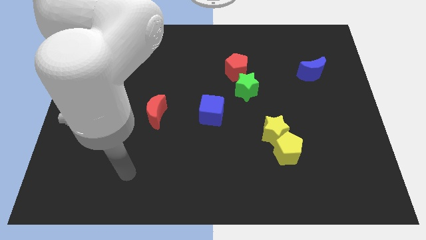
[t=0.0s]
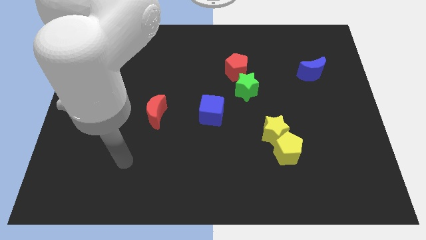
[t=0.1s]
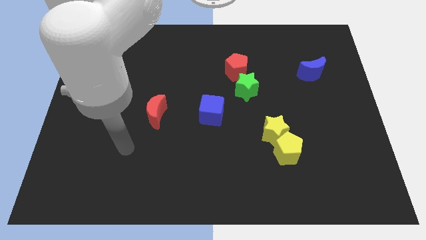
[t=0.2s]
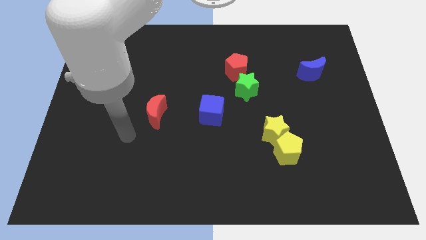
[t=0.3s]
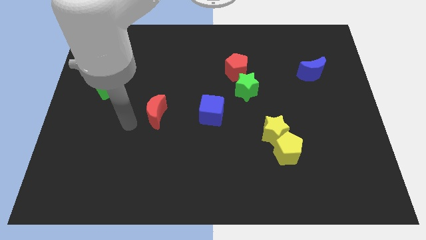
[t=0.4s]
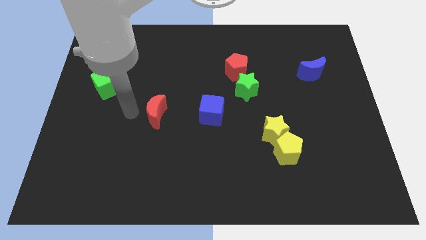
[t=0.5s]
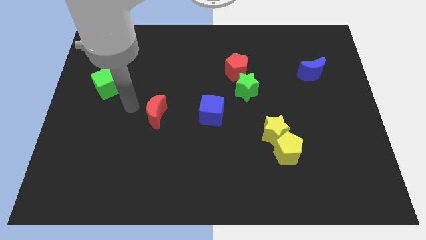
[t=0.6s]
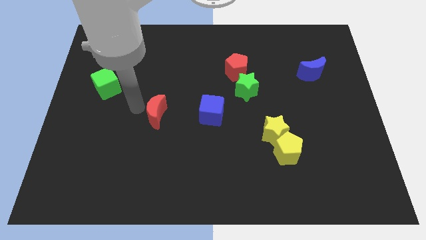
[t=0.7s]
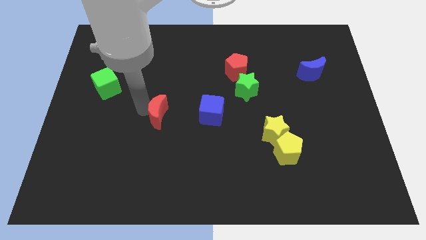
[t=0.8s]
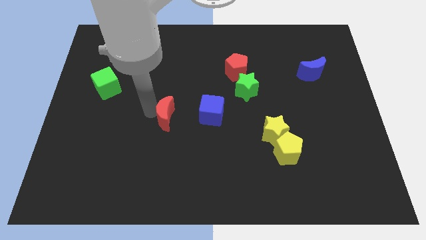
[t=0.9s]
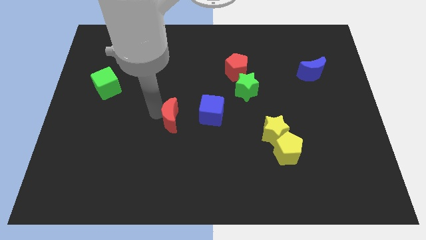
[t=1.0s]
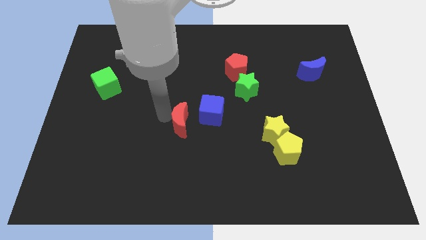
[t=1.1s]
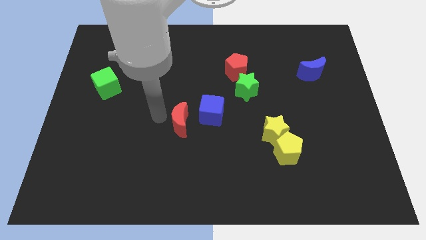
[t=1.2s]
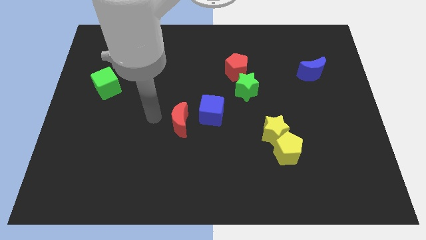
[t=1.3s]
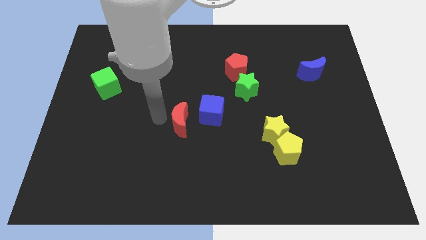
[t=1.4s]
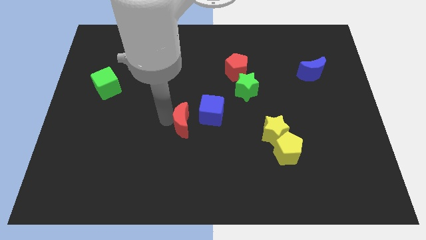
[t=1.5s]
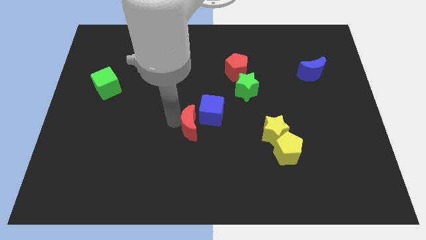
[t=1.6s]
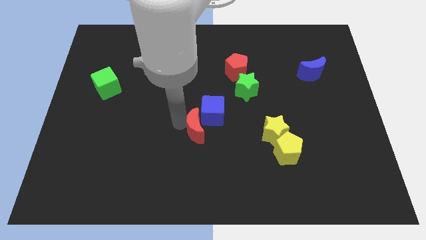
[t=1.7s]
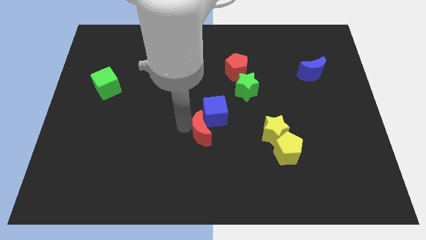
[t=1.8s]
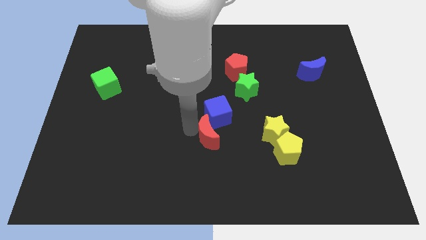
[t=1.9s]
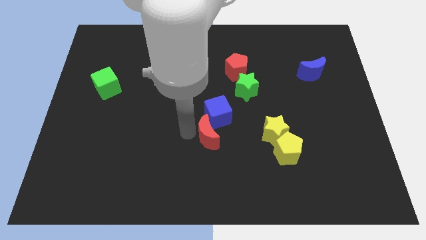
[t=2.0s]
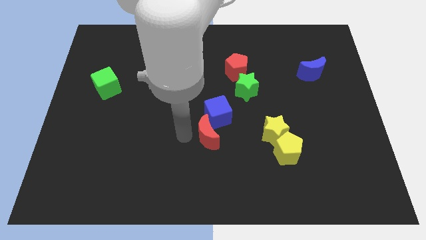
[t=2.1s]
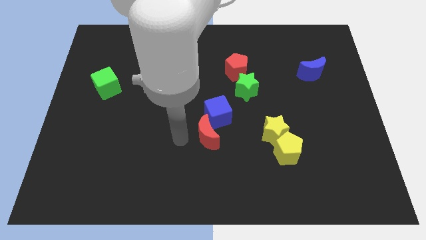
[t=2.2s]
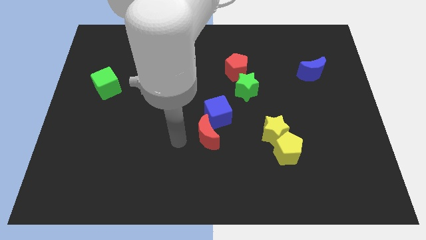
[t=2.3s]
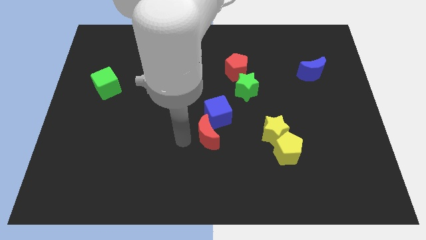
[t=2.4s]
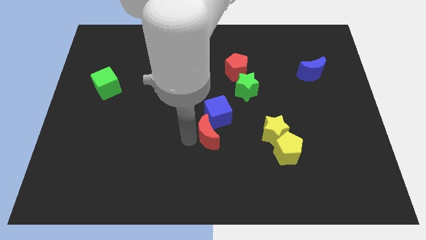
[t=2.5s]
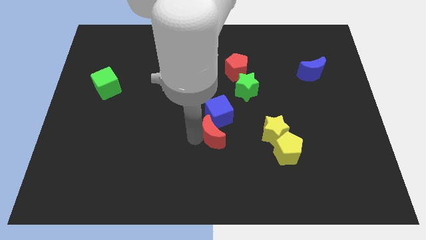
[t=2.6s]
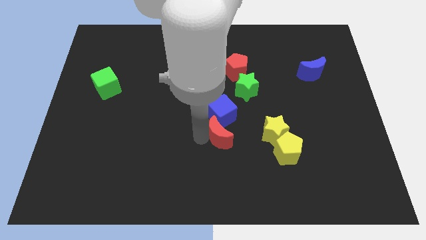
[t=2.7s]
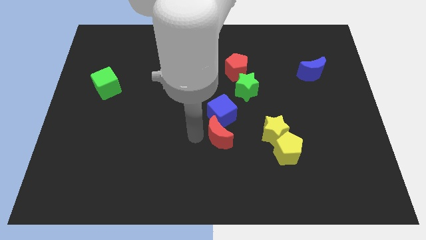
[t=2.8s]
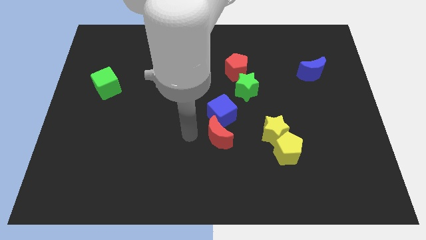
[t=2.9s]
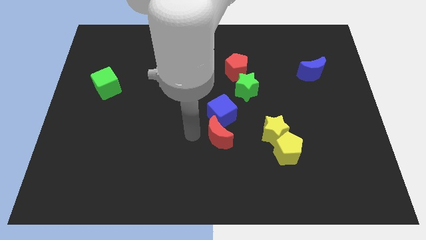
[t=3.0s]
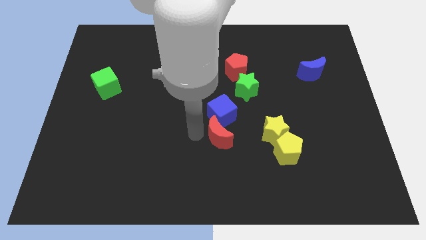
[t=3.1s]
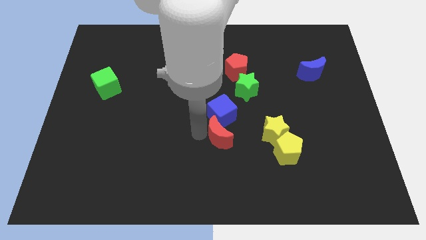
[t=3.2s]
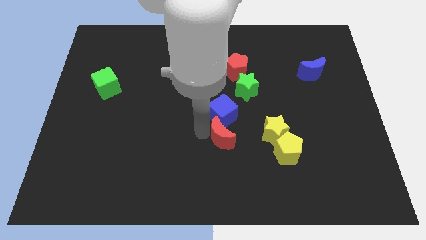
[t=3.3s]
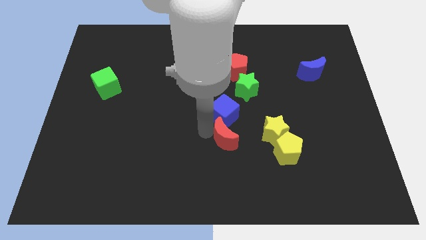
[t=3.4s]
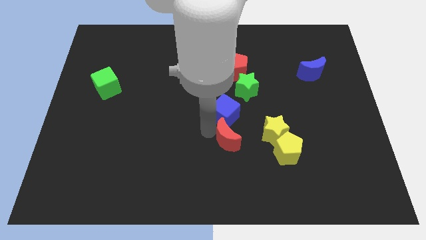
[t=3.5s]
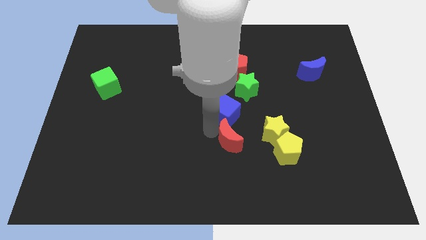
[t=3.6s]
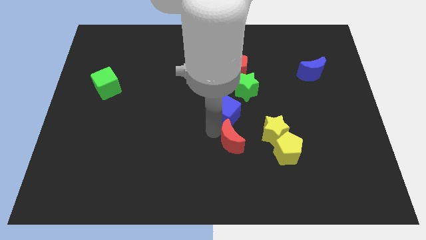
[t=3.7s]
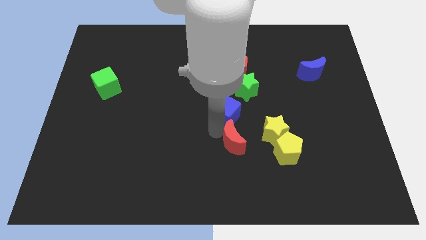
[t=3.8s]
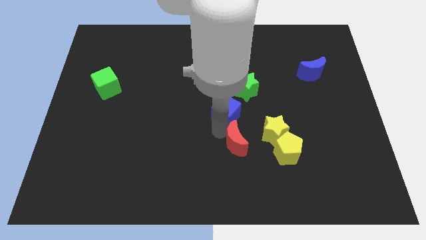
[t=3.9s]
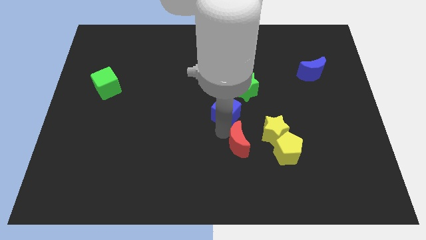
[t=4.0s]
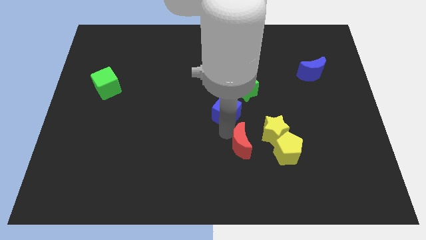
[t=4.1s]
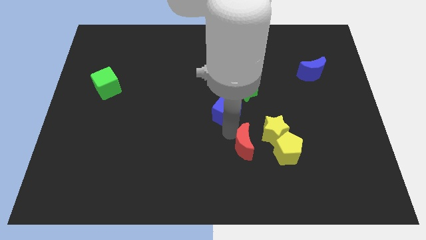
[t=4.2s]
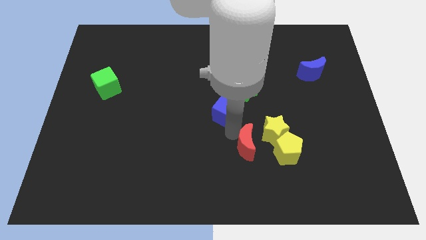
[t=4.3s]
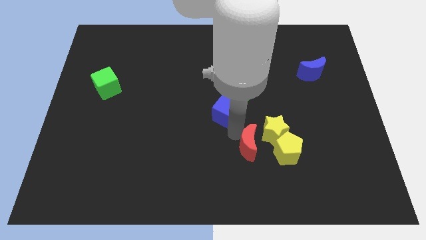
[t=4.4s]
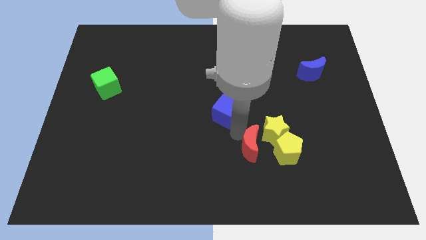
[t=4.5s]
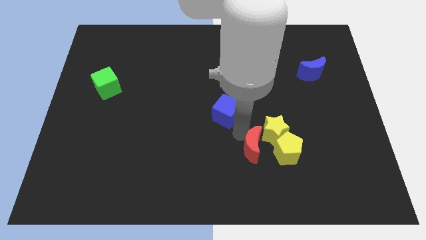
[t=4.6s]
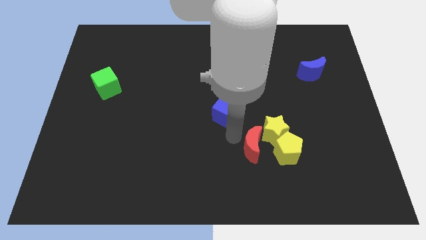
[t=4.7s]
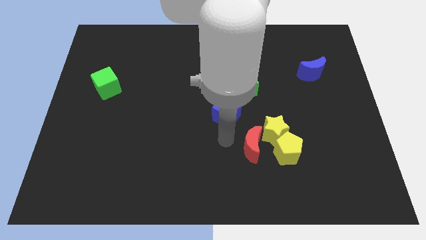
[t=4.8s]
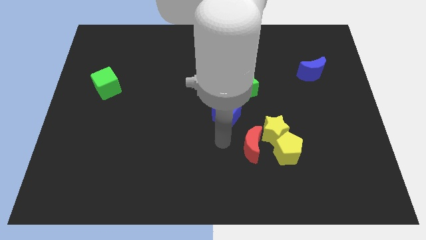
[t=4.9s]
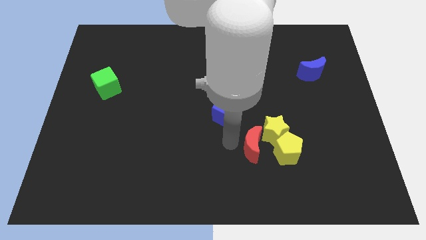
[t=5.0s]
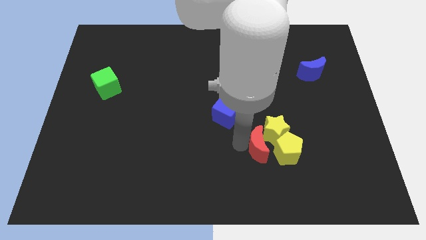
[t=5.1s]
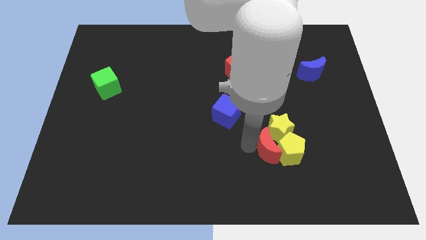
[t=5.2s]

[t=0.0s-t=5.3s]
move the red moon next to the yellow pentagon

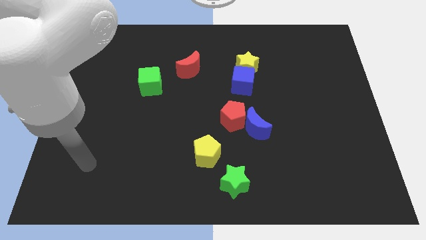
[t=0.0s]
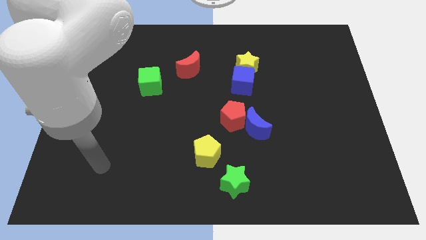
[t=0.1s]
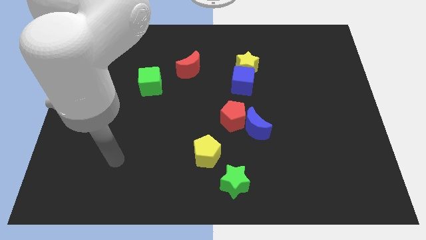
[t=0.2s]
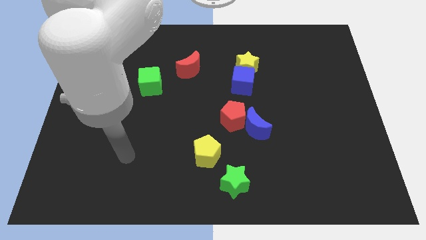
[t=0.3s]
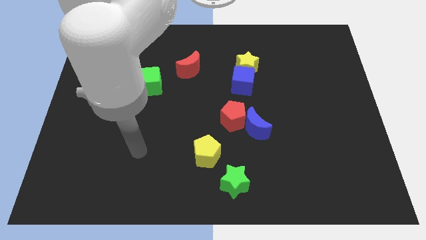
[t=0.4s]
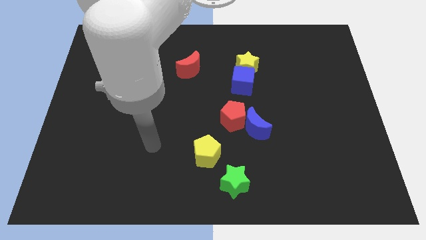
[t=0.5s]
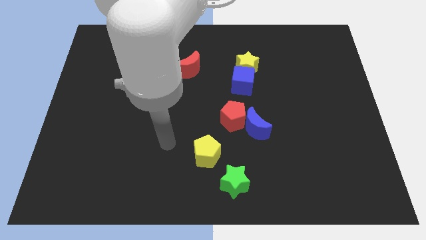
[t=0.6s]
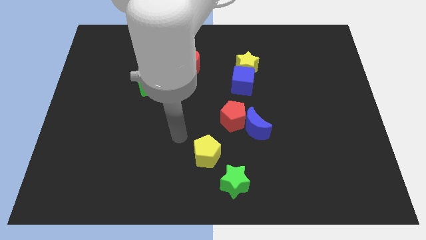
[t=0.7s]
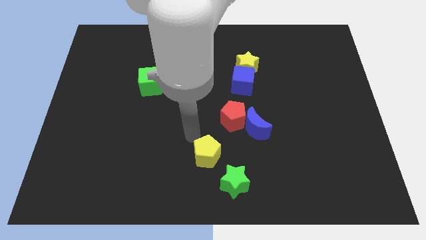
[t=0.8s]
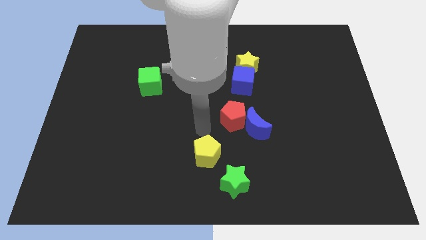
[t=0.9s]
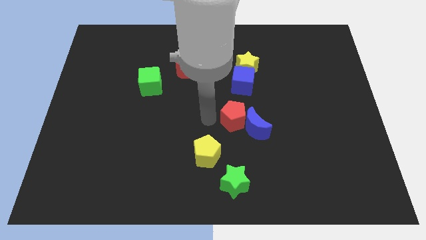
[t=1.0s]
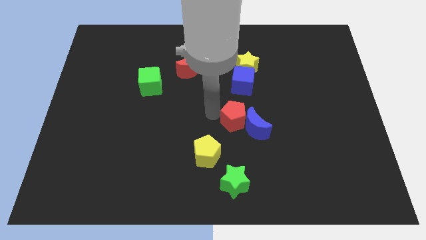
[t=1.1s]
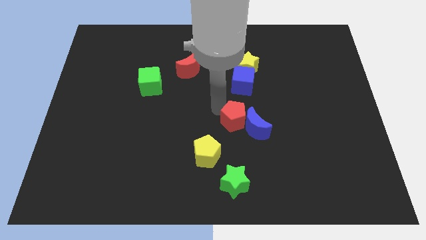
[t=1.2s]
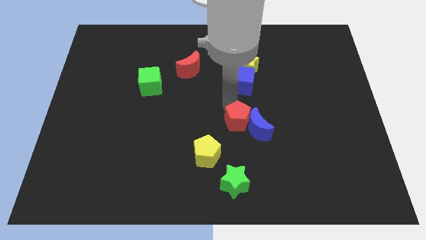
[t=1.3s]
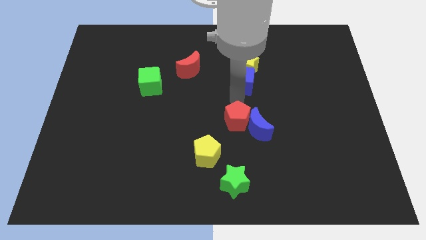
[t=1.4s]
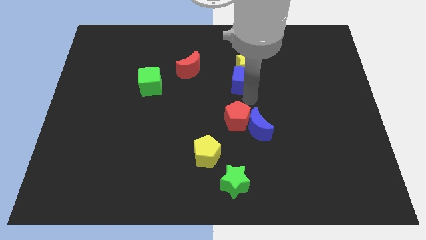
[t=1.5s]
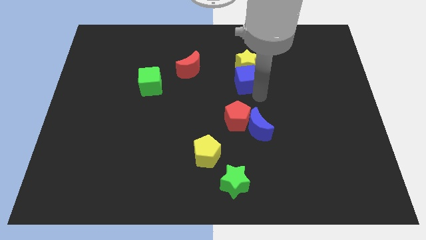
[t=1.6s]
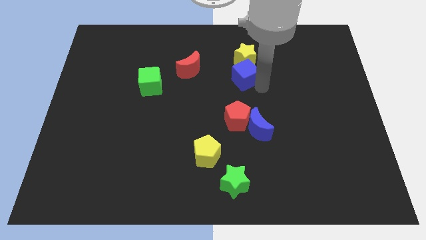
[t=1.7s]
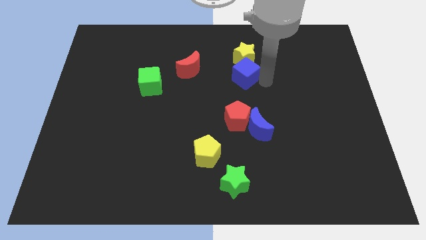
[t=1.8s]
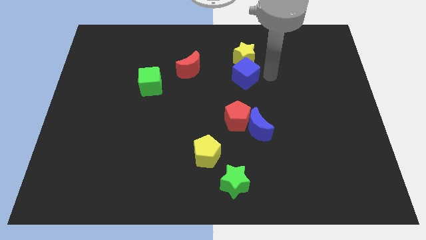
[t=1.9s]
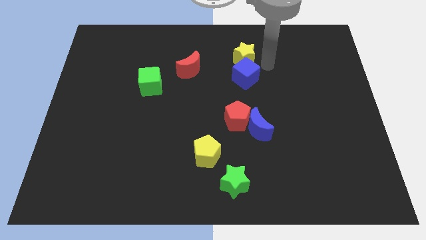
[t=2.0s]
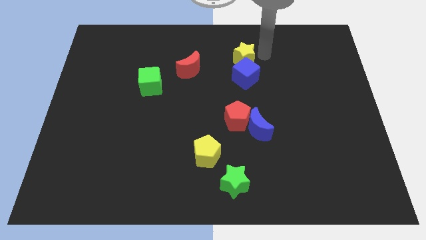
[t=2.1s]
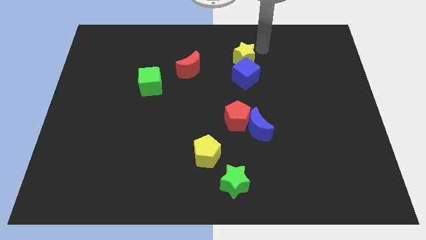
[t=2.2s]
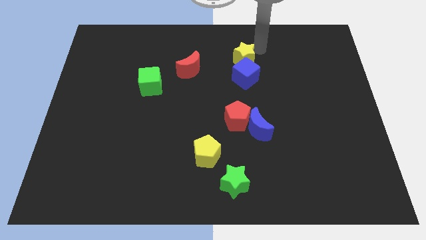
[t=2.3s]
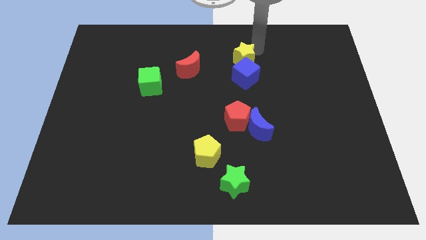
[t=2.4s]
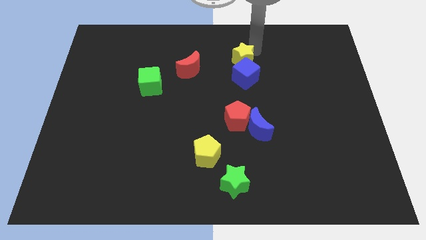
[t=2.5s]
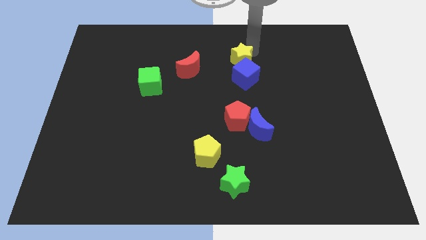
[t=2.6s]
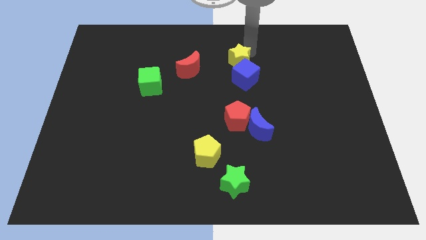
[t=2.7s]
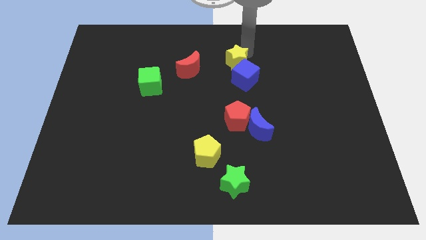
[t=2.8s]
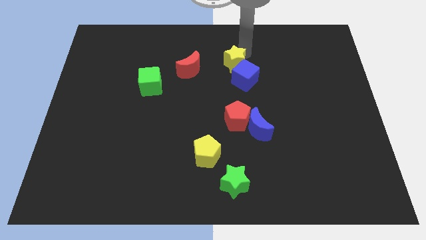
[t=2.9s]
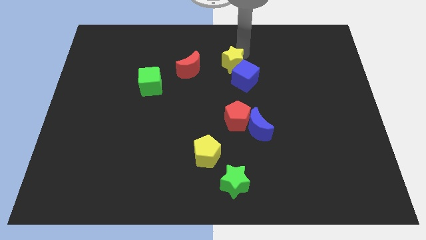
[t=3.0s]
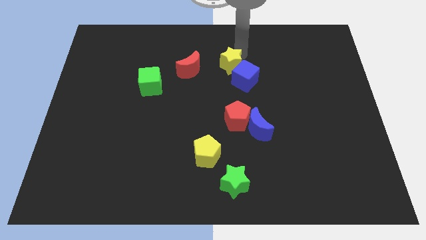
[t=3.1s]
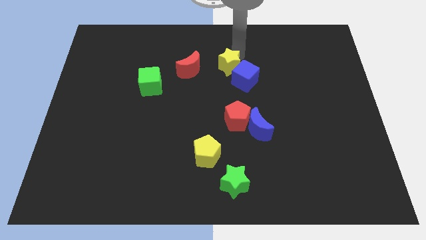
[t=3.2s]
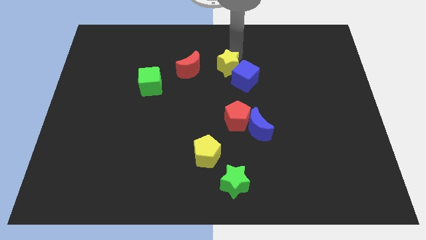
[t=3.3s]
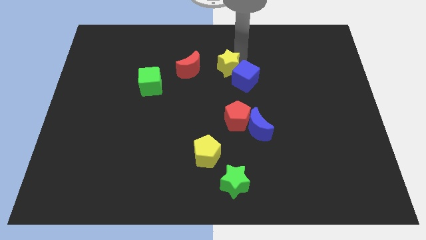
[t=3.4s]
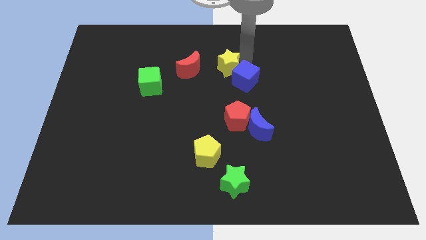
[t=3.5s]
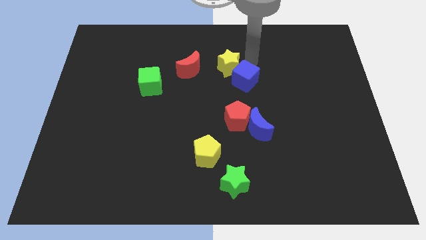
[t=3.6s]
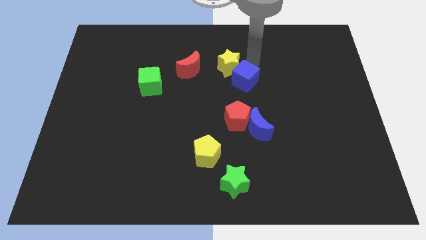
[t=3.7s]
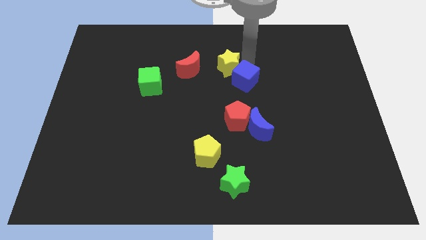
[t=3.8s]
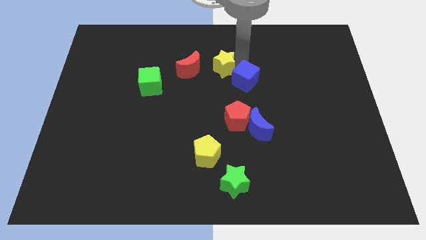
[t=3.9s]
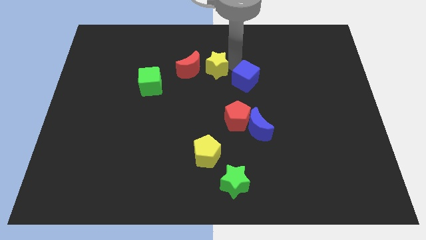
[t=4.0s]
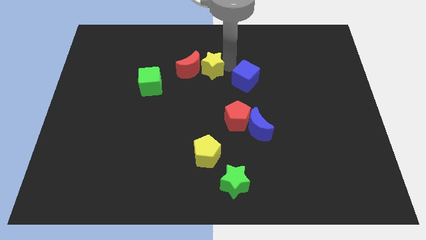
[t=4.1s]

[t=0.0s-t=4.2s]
push the yellow star to the red moon
